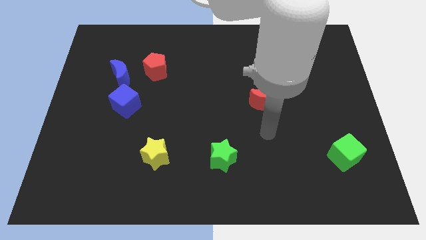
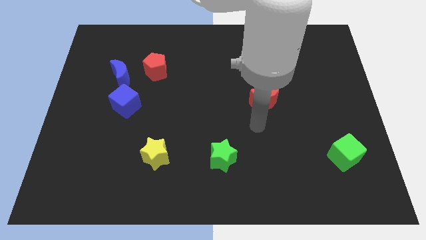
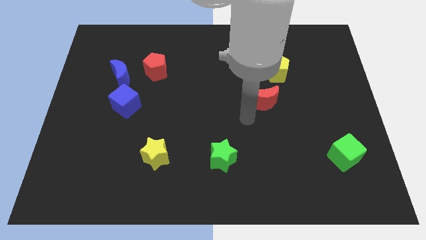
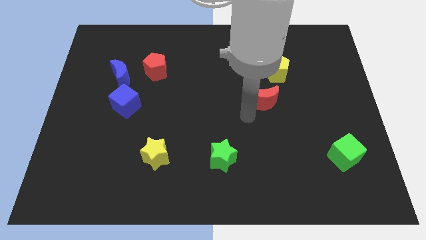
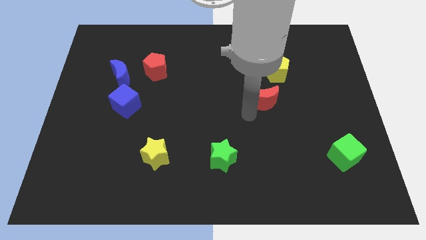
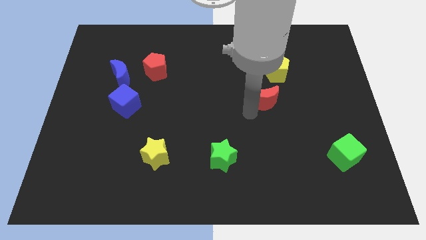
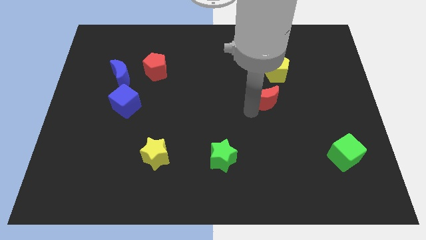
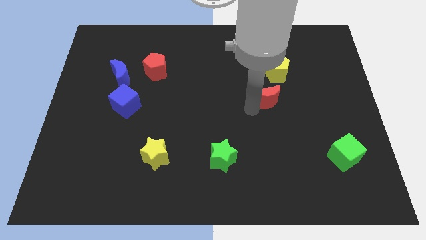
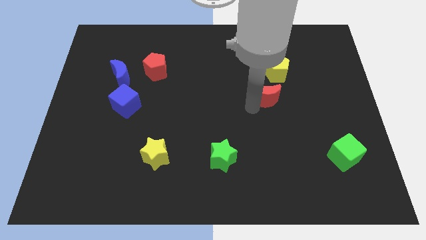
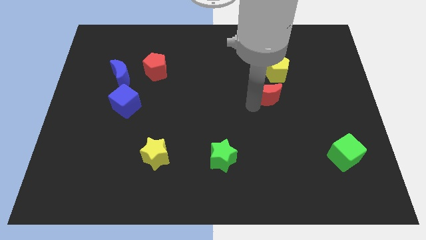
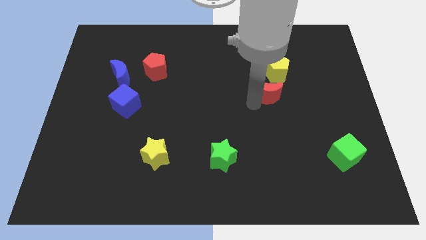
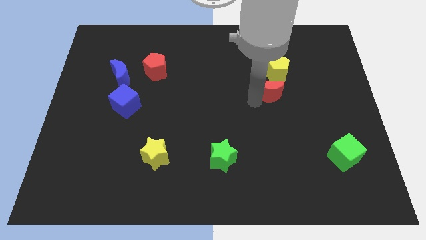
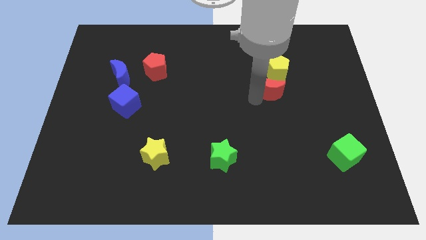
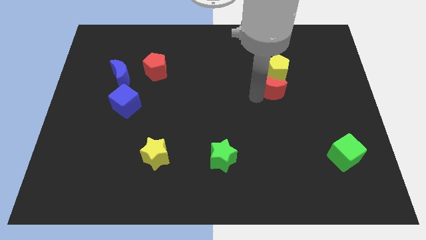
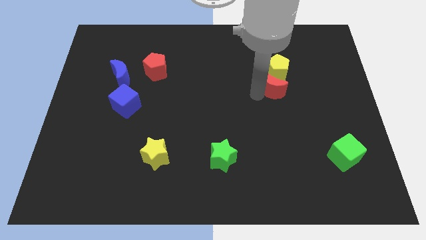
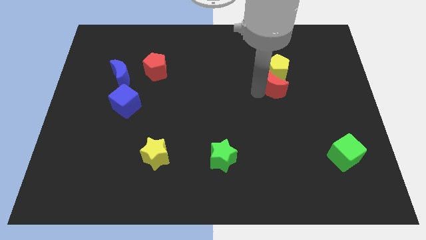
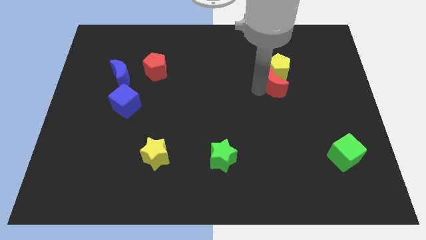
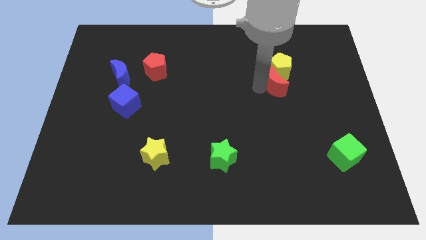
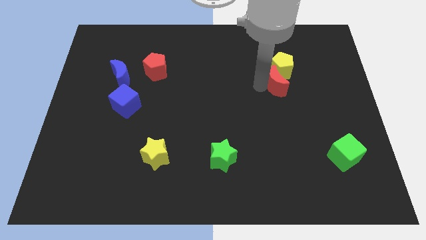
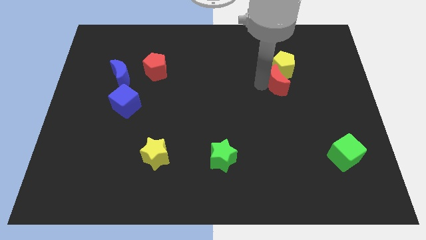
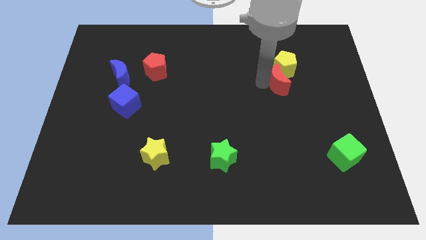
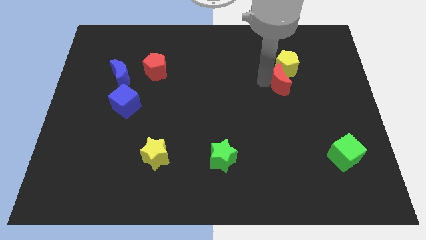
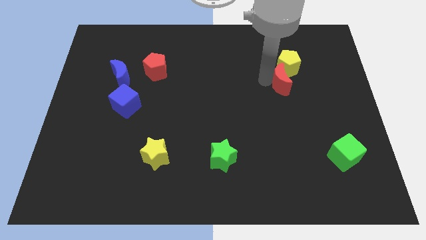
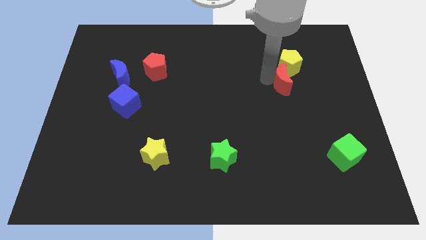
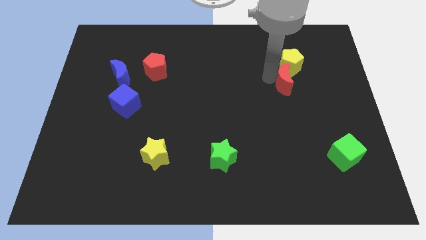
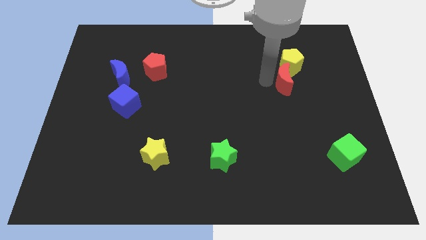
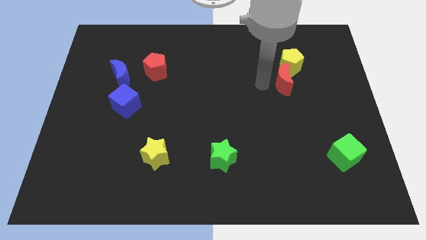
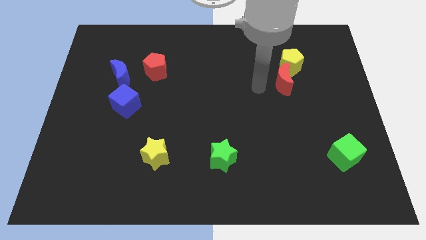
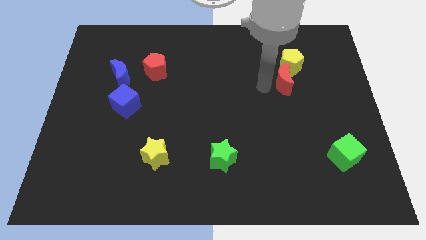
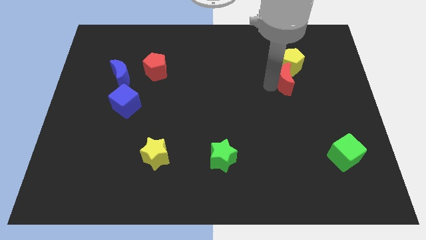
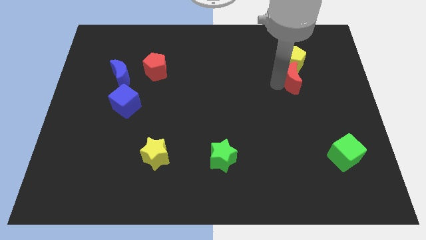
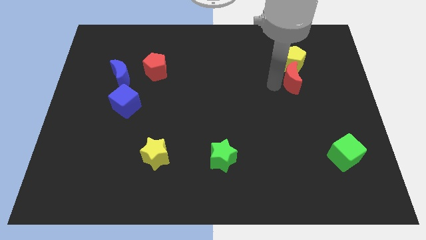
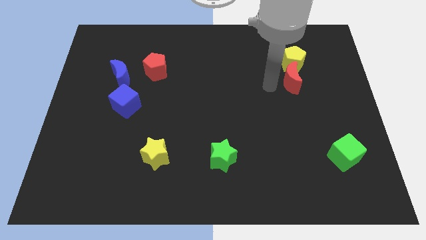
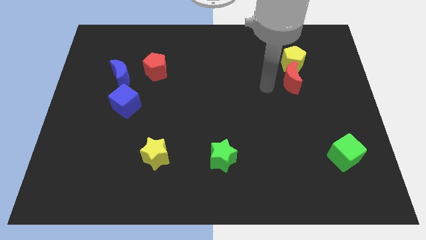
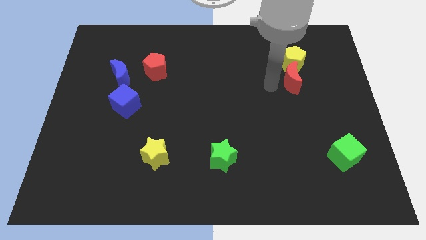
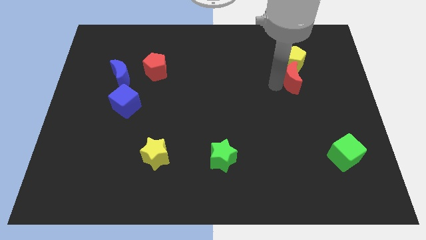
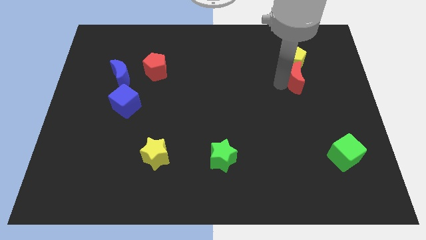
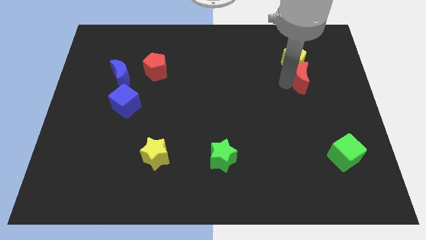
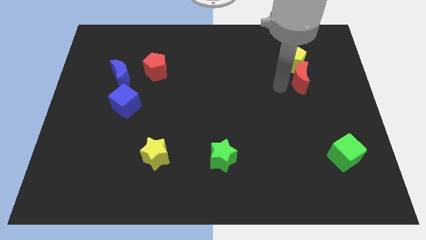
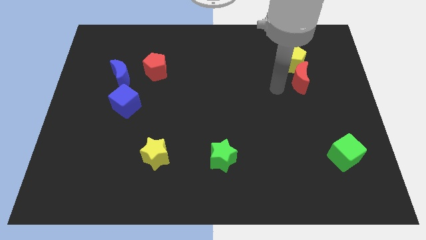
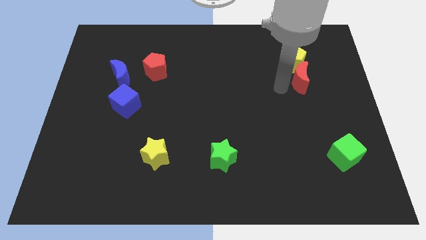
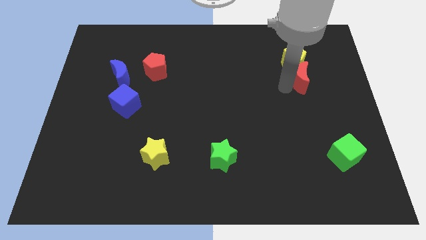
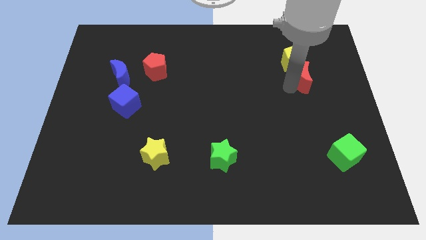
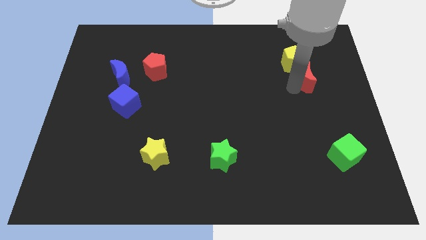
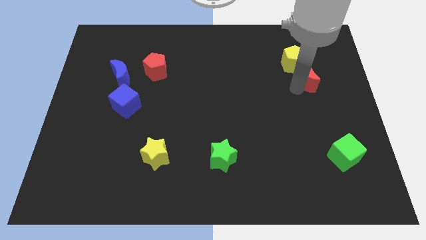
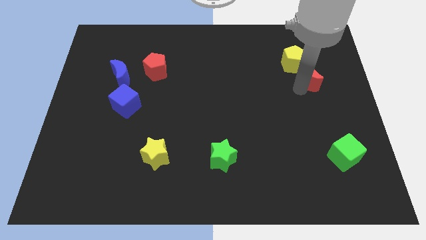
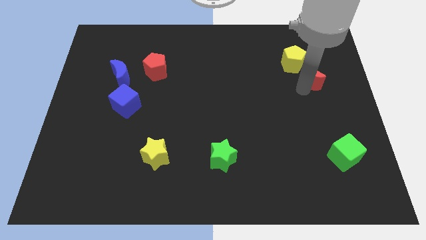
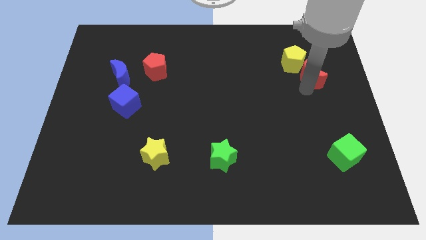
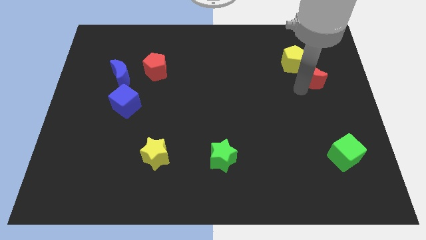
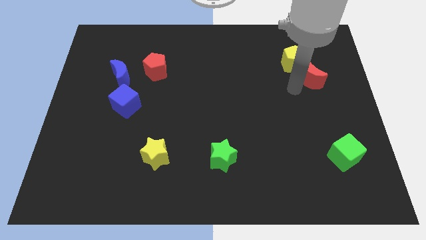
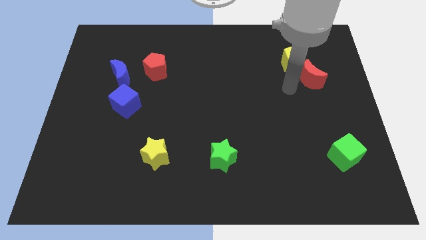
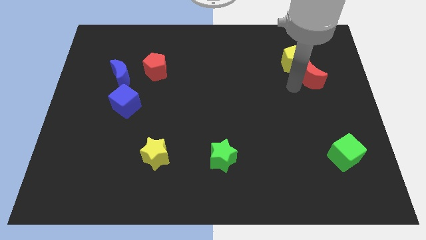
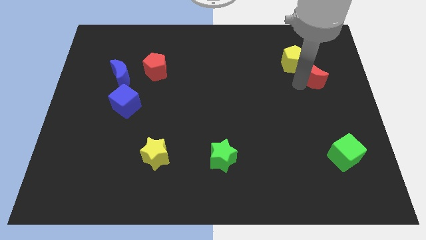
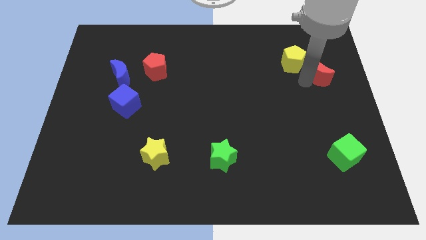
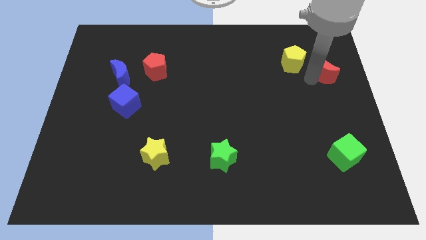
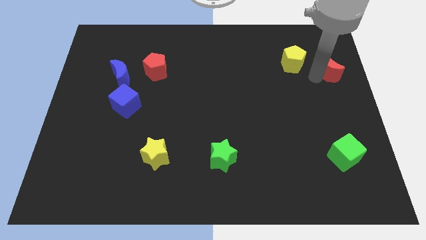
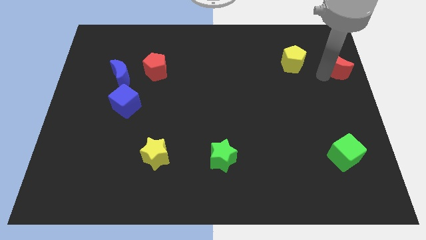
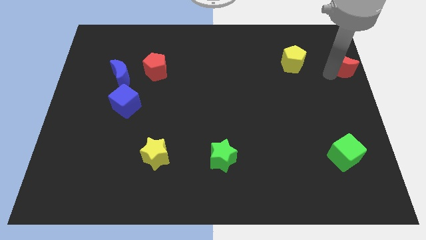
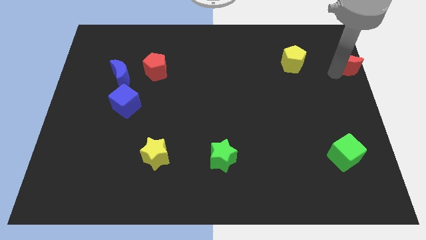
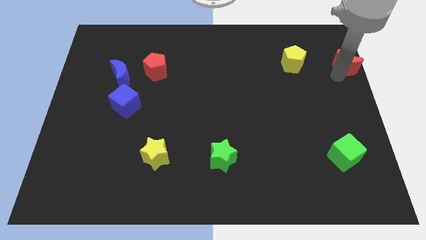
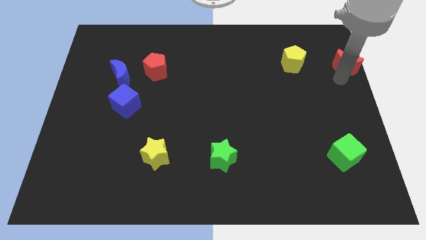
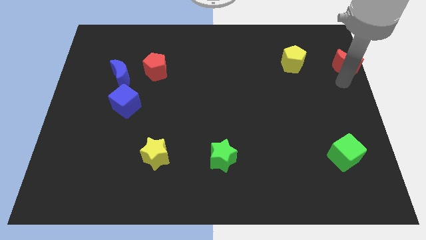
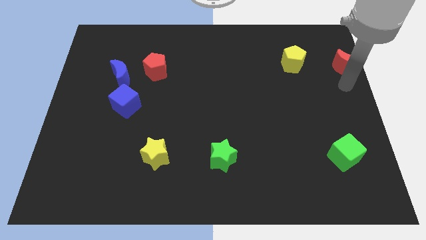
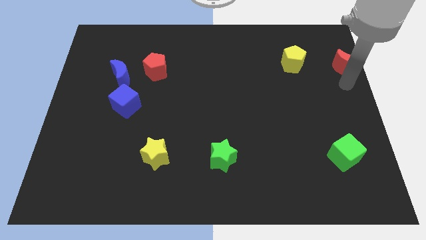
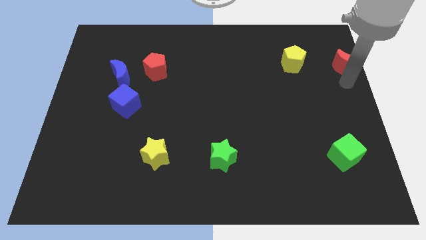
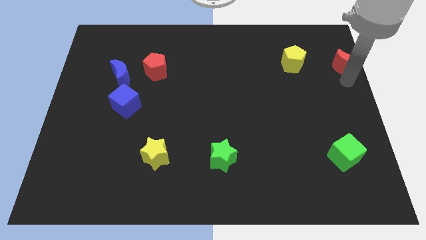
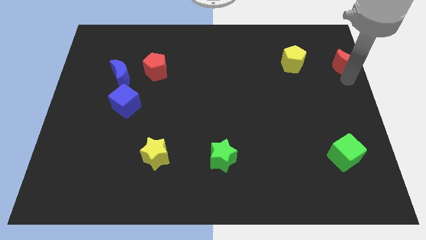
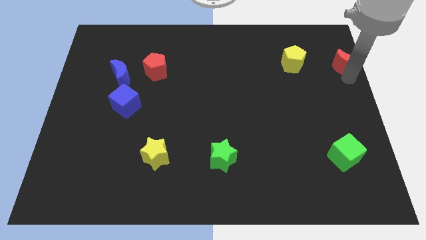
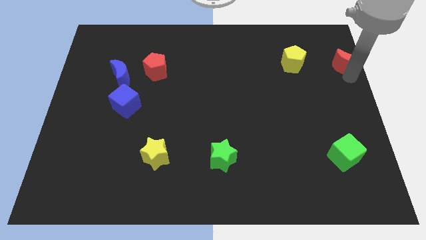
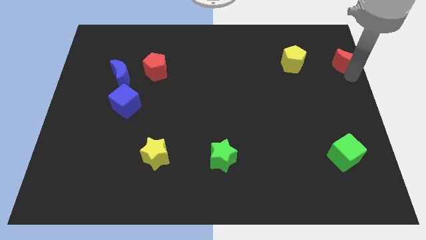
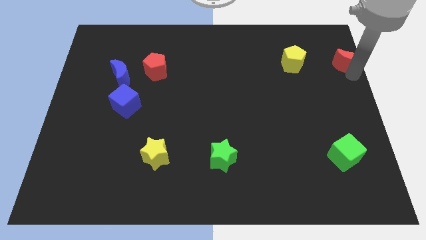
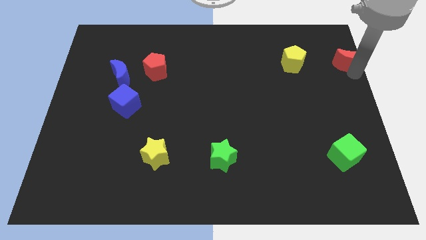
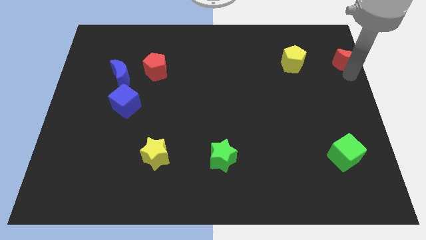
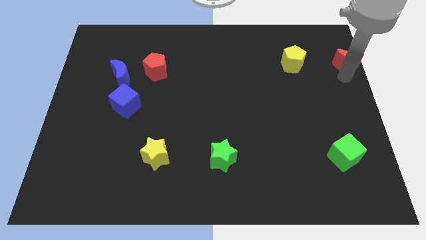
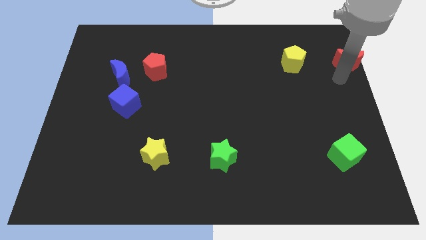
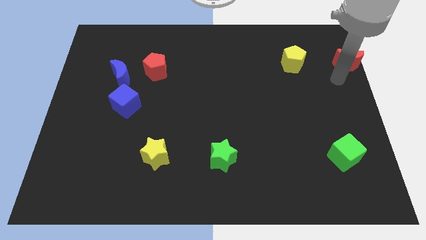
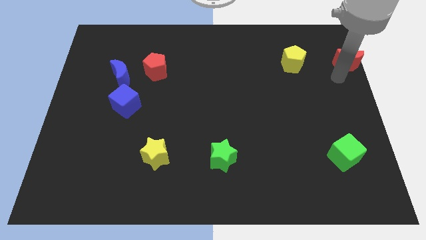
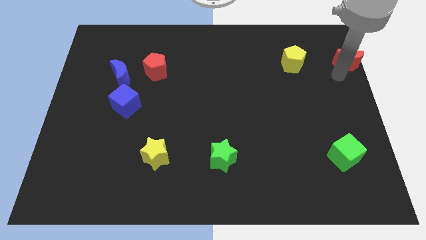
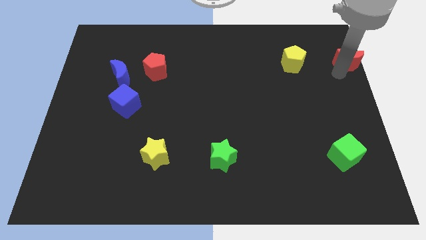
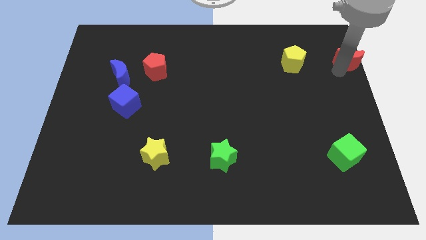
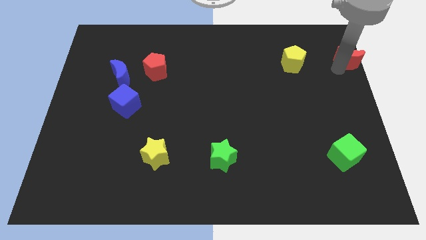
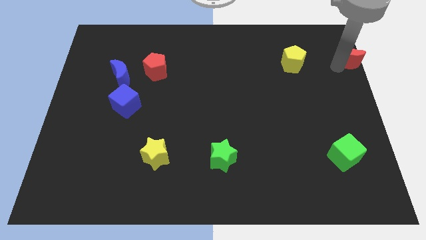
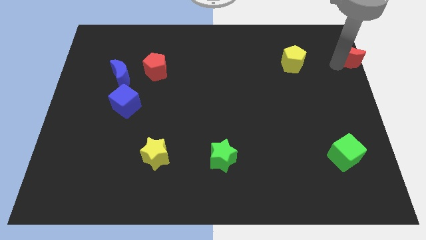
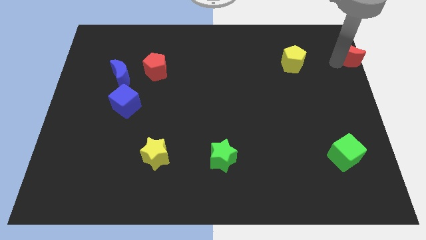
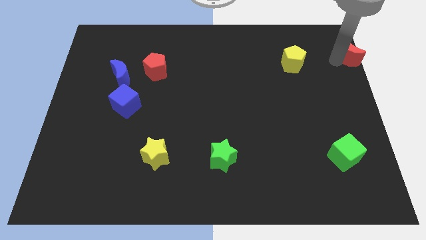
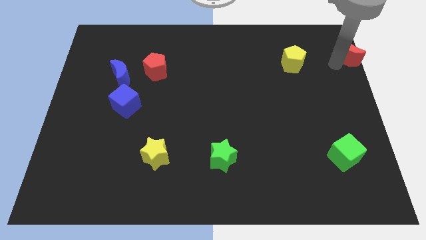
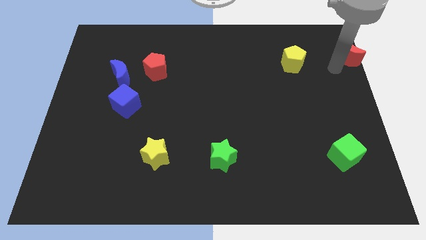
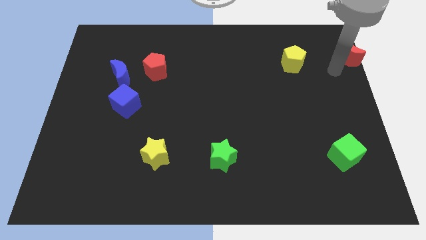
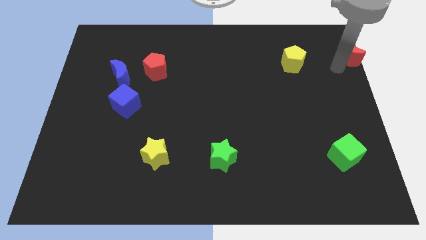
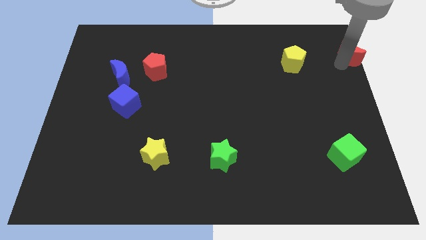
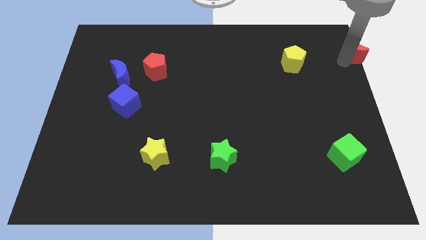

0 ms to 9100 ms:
push the red moon to the upper right corner
